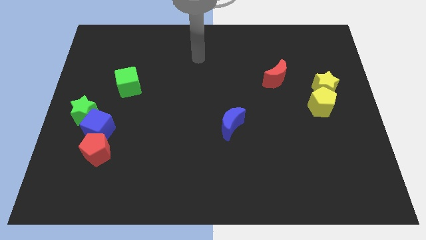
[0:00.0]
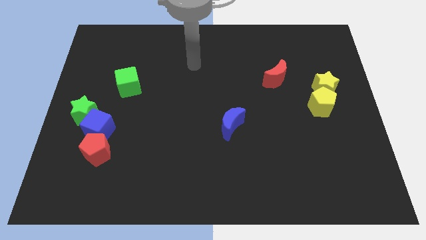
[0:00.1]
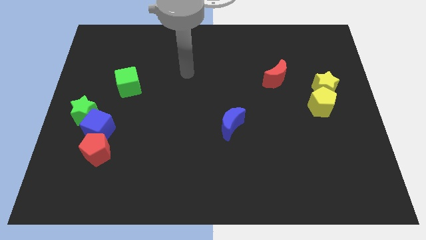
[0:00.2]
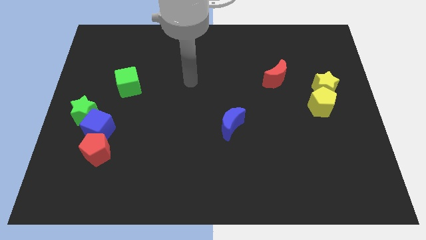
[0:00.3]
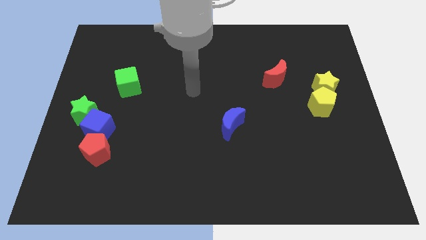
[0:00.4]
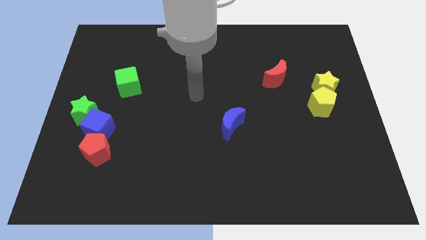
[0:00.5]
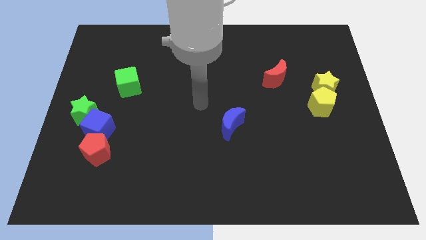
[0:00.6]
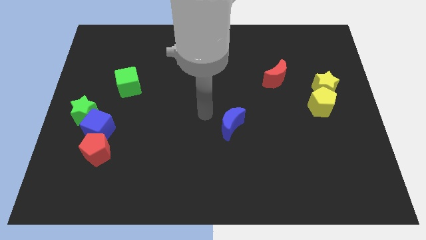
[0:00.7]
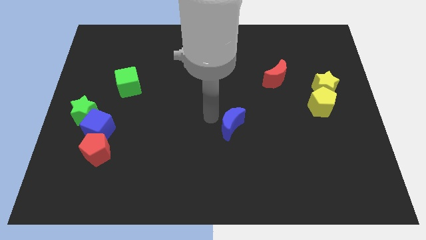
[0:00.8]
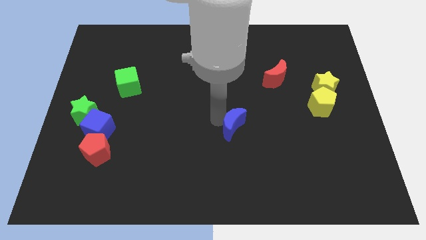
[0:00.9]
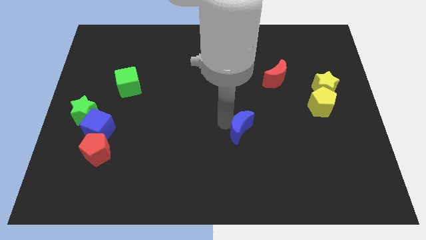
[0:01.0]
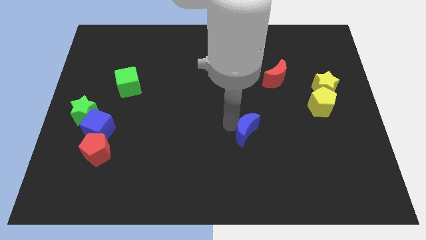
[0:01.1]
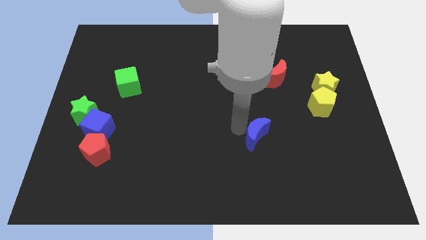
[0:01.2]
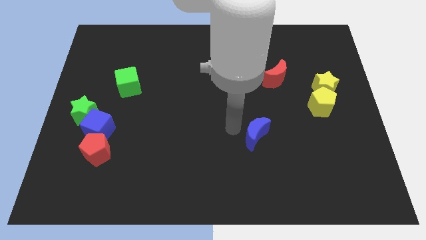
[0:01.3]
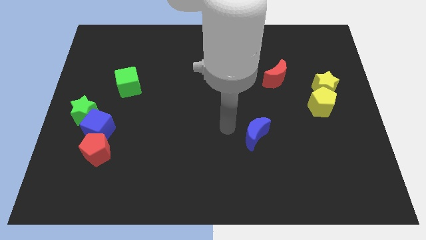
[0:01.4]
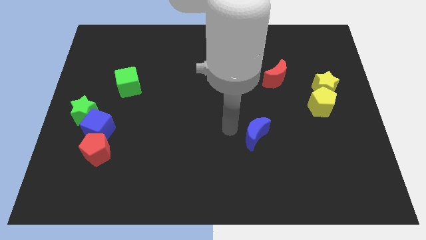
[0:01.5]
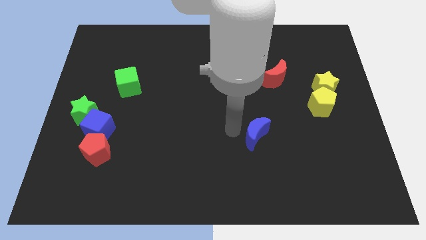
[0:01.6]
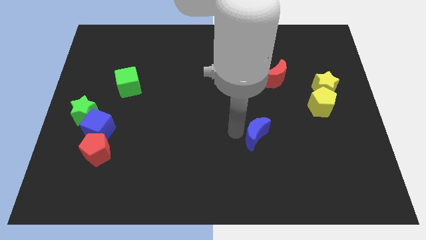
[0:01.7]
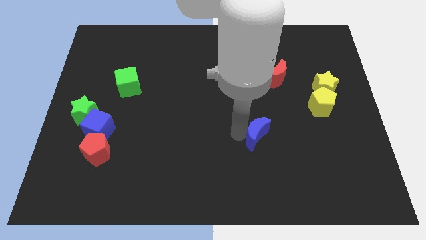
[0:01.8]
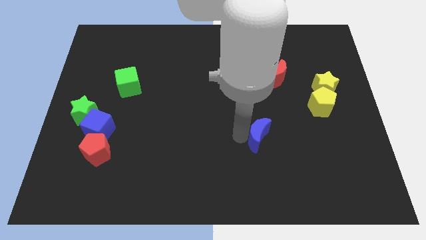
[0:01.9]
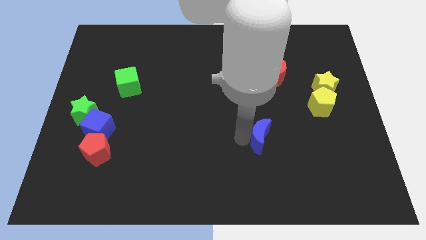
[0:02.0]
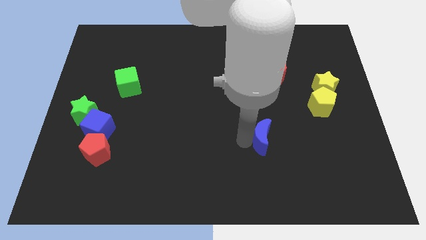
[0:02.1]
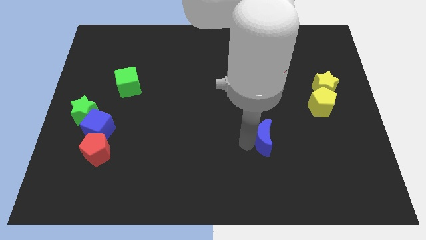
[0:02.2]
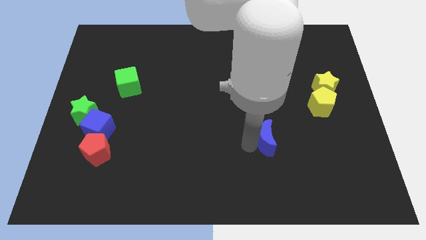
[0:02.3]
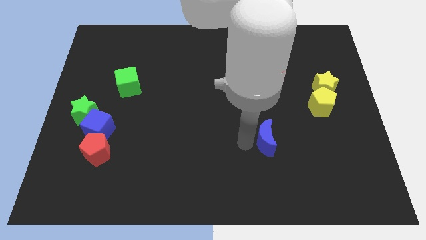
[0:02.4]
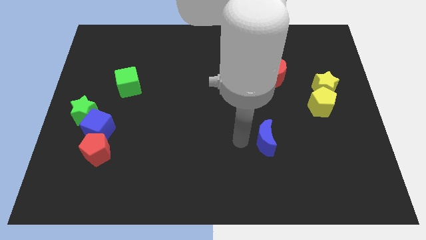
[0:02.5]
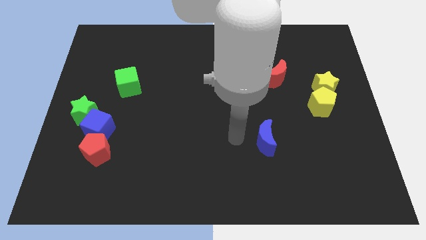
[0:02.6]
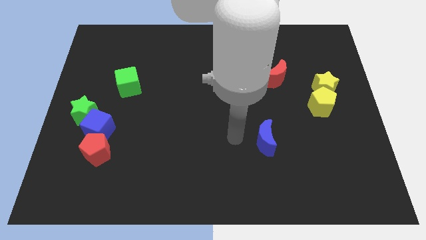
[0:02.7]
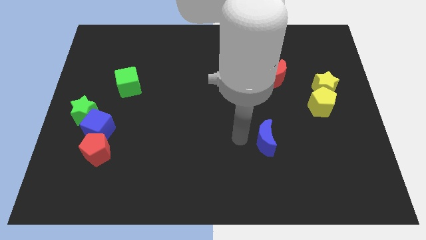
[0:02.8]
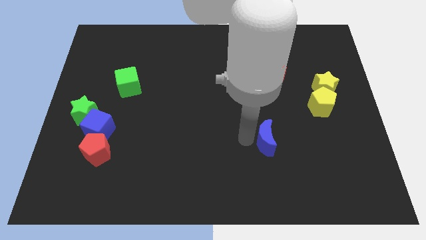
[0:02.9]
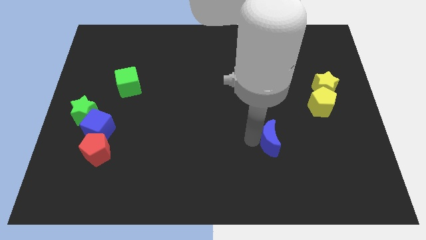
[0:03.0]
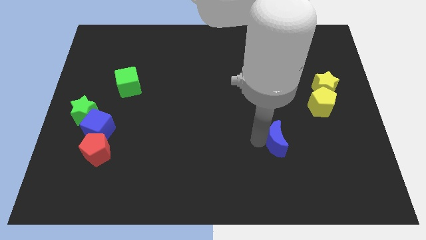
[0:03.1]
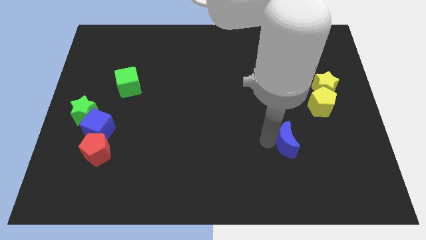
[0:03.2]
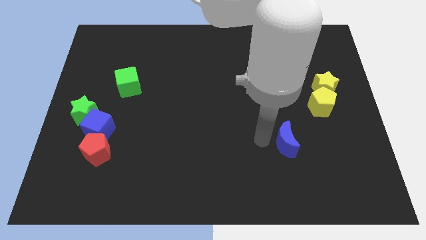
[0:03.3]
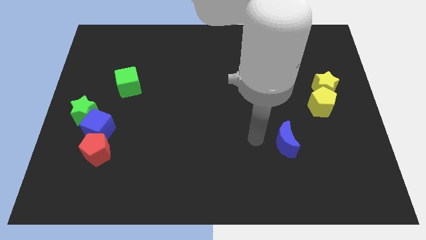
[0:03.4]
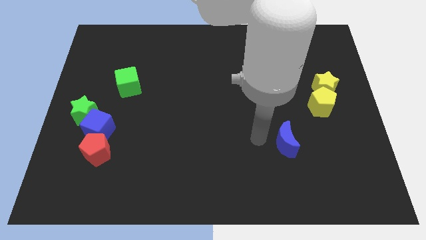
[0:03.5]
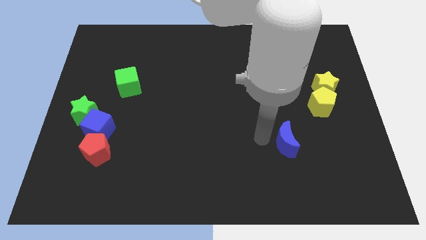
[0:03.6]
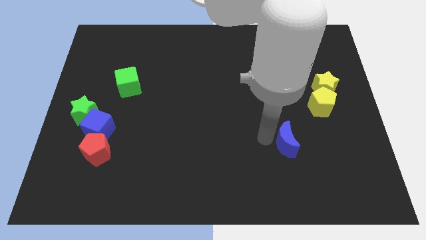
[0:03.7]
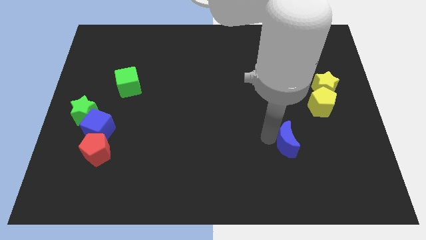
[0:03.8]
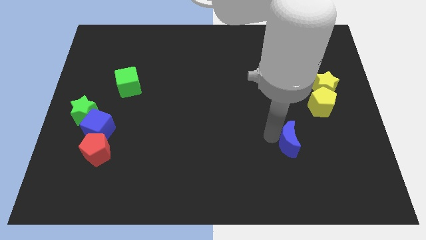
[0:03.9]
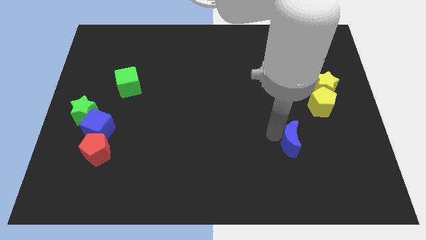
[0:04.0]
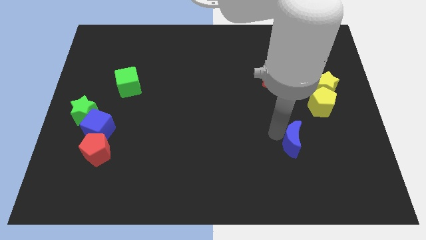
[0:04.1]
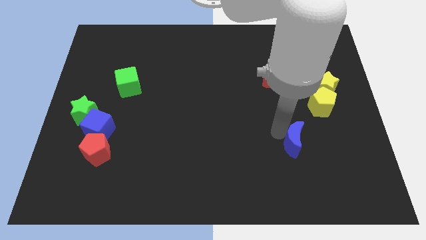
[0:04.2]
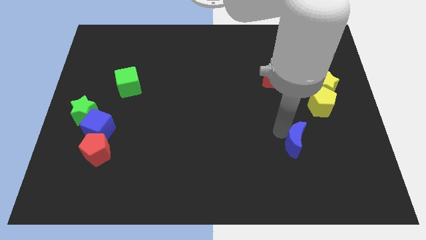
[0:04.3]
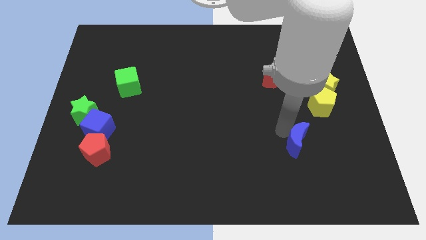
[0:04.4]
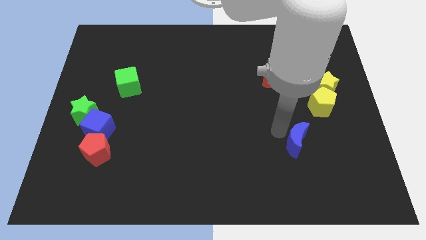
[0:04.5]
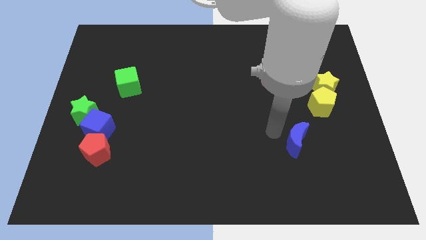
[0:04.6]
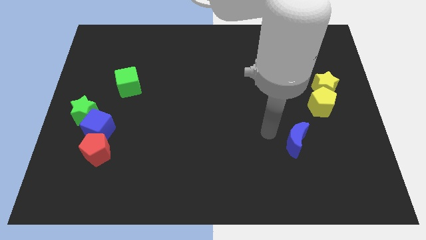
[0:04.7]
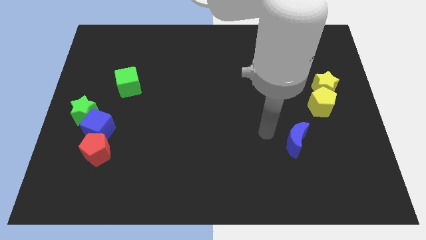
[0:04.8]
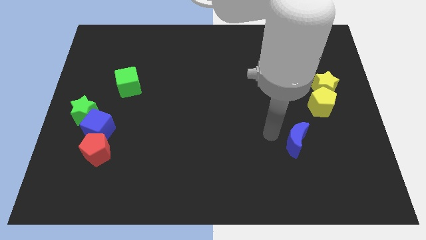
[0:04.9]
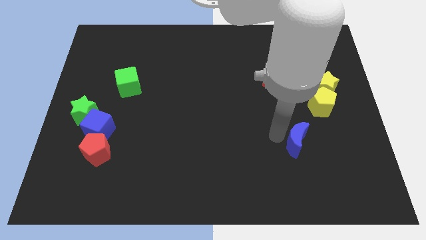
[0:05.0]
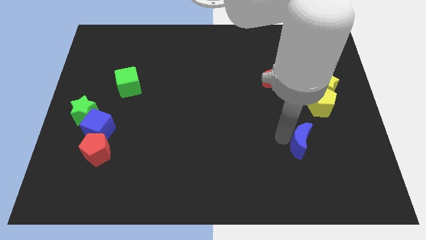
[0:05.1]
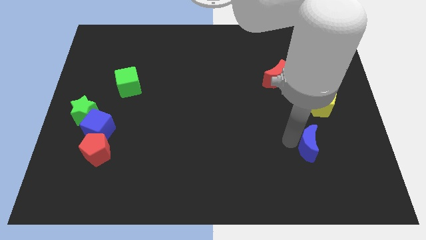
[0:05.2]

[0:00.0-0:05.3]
move the blue moon to the bottom of the yellow pentagon

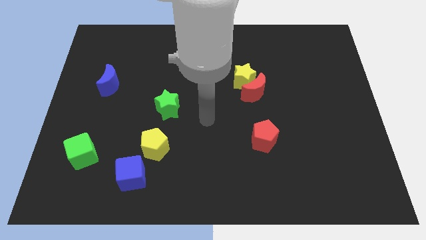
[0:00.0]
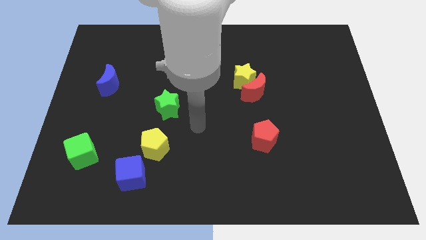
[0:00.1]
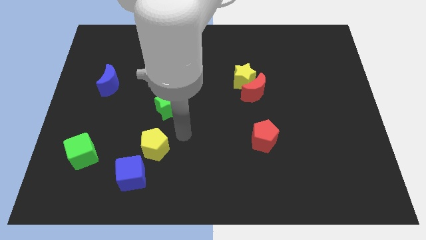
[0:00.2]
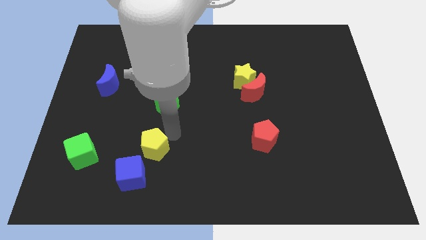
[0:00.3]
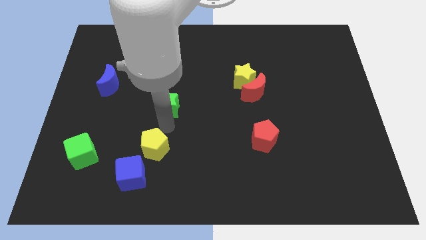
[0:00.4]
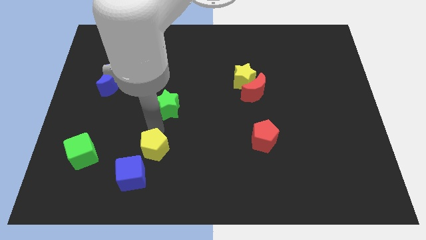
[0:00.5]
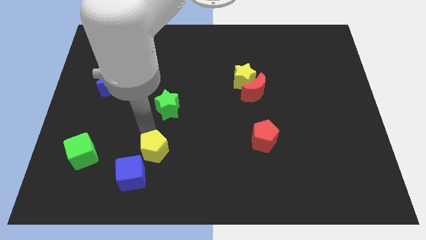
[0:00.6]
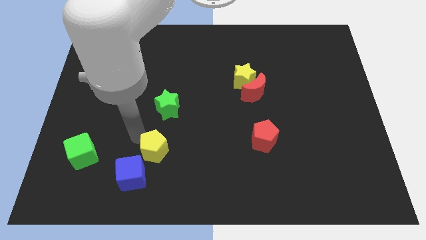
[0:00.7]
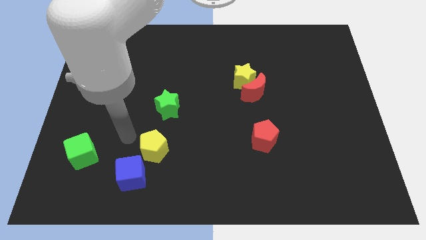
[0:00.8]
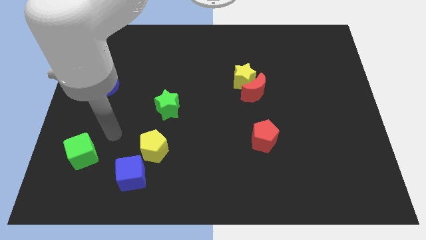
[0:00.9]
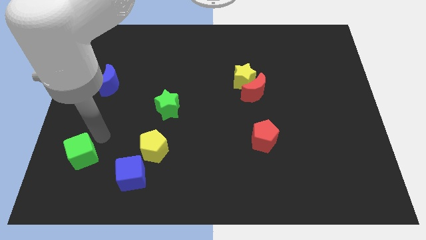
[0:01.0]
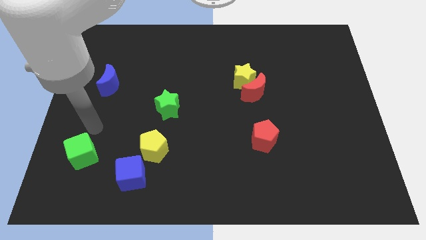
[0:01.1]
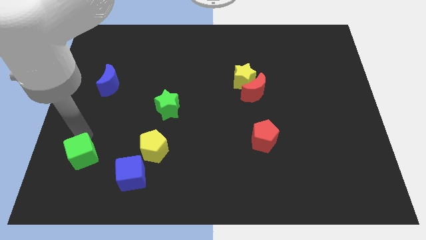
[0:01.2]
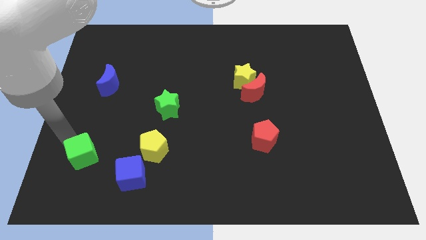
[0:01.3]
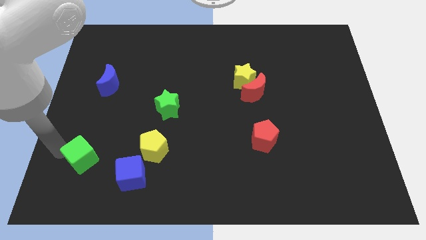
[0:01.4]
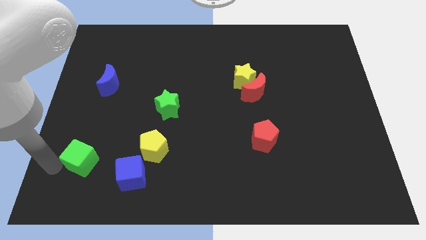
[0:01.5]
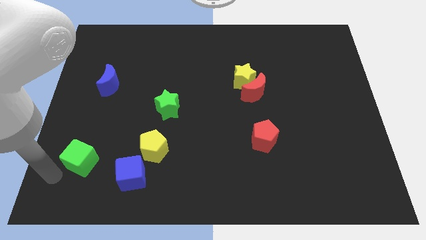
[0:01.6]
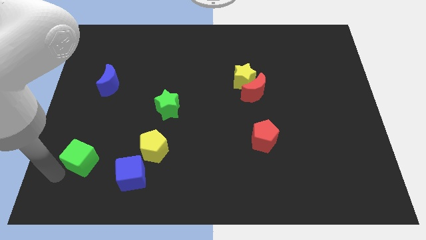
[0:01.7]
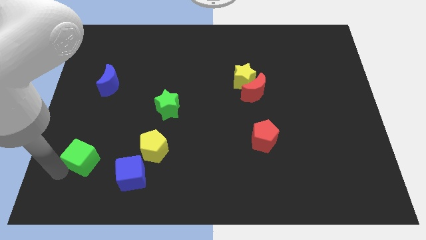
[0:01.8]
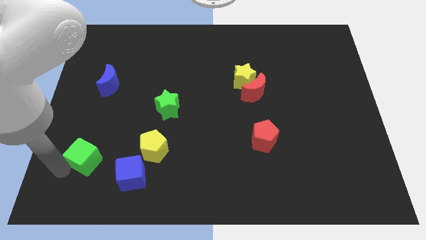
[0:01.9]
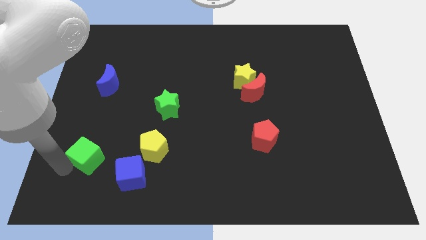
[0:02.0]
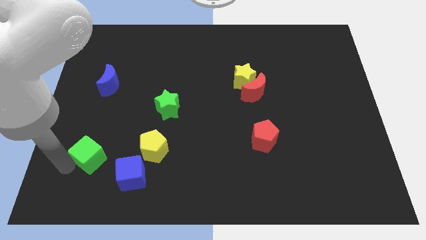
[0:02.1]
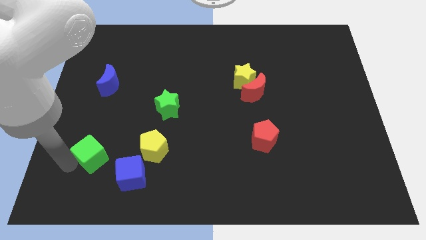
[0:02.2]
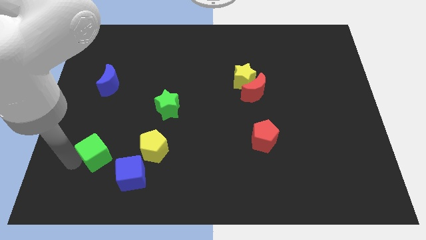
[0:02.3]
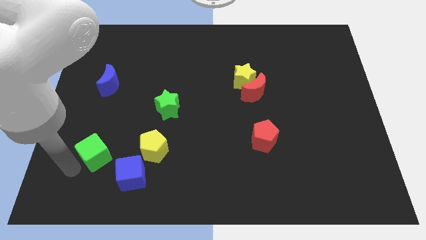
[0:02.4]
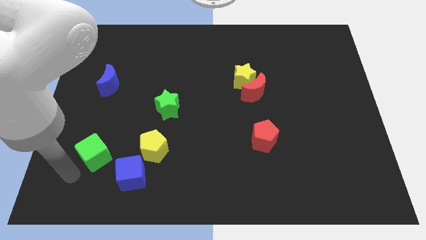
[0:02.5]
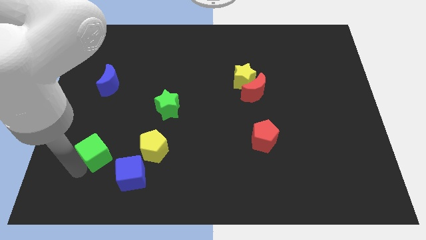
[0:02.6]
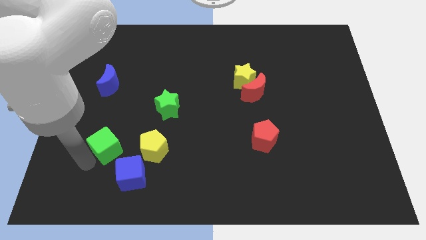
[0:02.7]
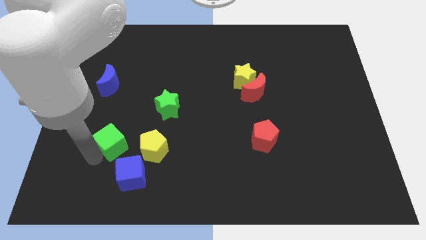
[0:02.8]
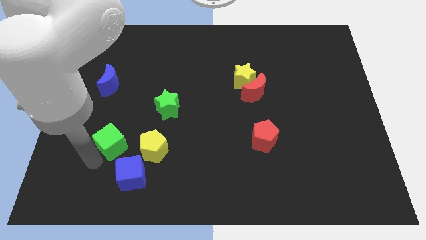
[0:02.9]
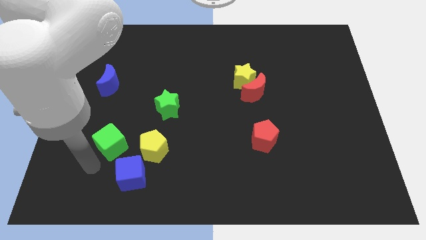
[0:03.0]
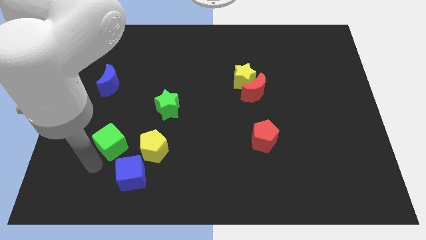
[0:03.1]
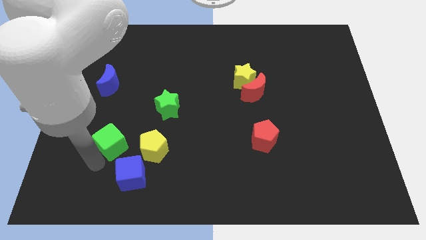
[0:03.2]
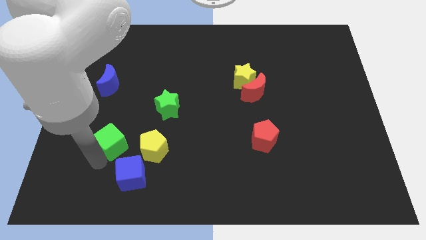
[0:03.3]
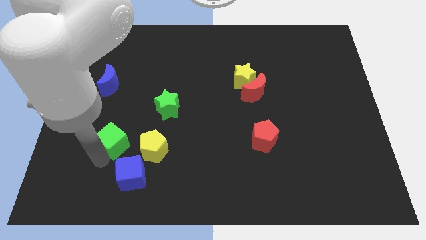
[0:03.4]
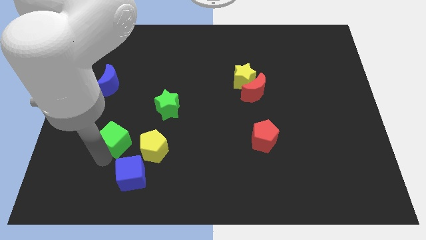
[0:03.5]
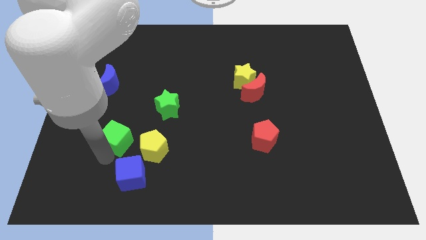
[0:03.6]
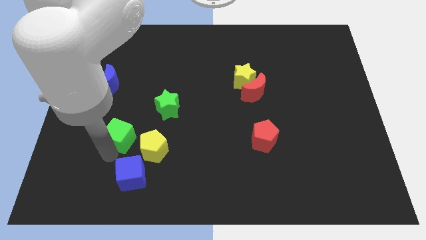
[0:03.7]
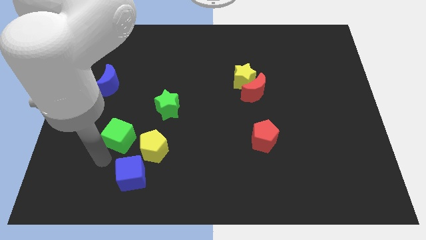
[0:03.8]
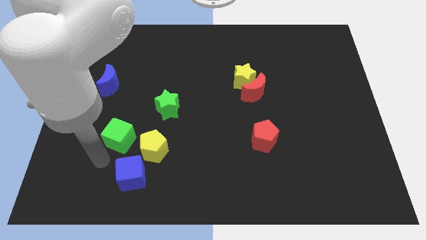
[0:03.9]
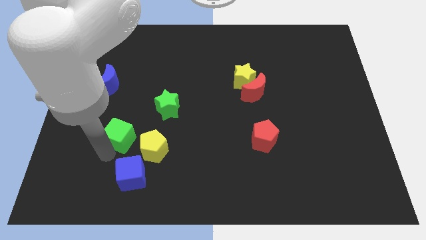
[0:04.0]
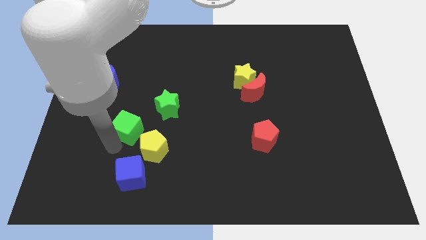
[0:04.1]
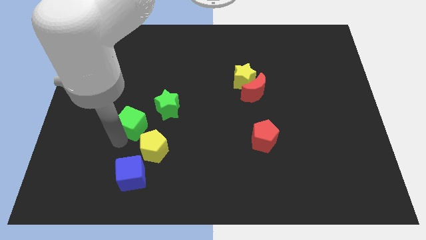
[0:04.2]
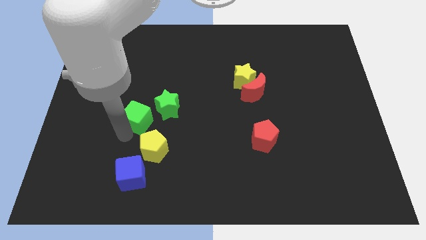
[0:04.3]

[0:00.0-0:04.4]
push the green cube to the top of the yellow pentagon
